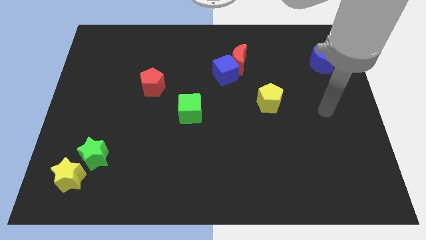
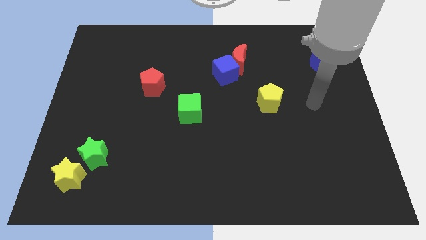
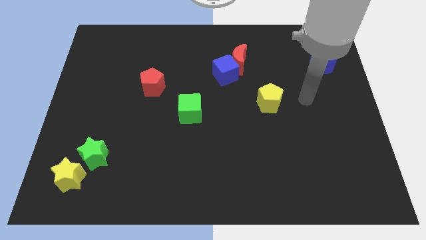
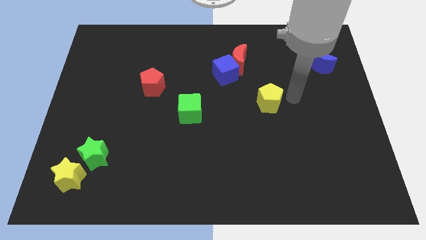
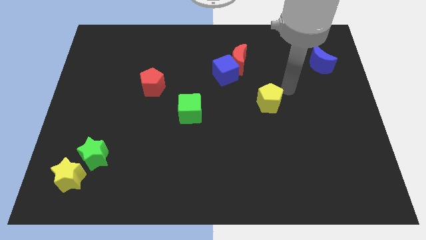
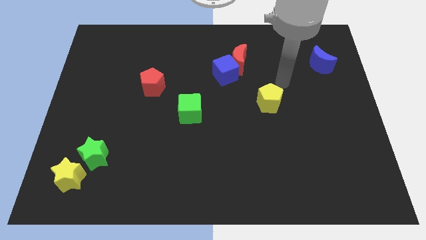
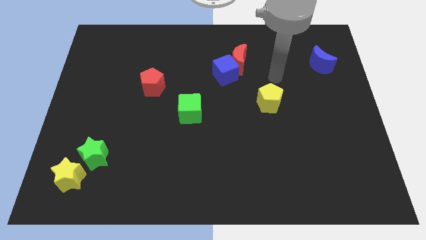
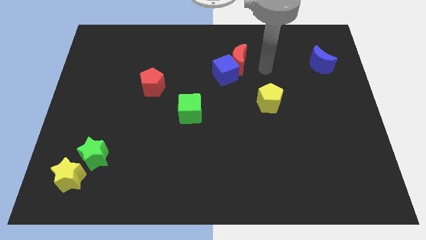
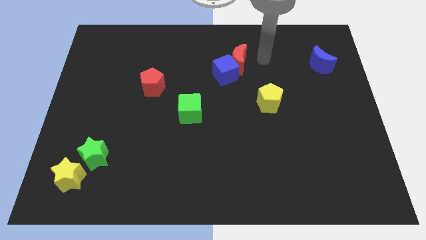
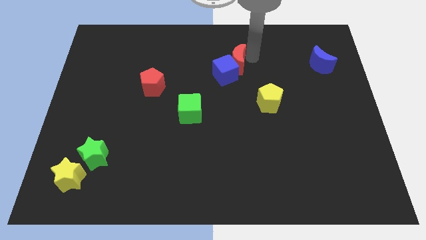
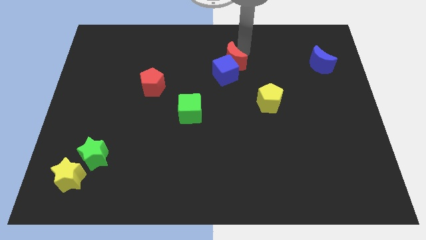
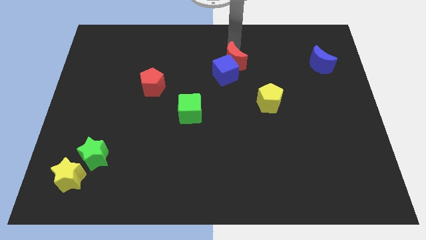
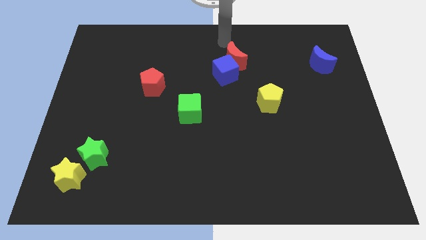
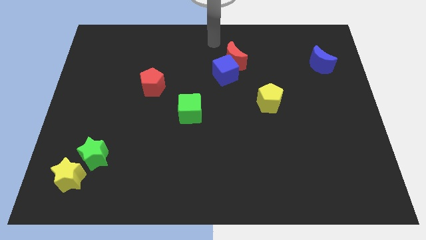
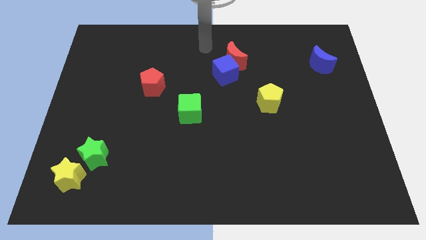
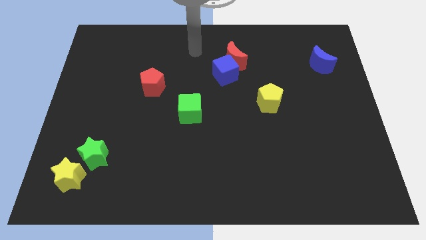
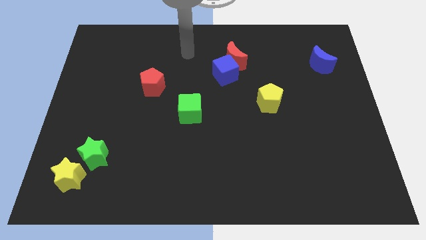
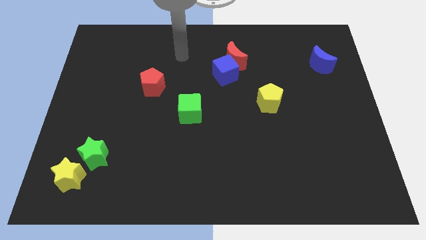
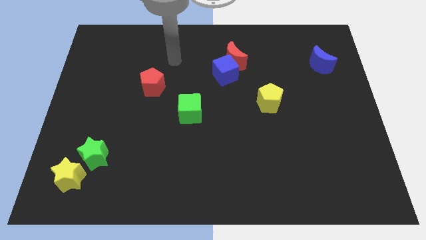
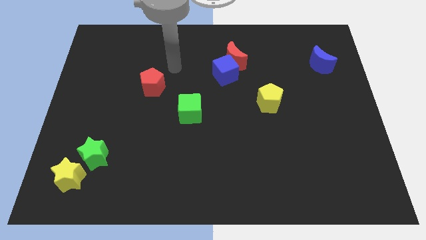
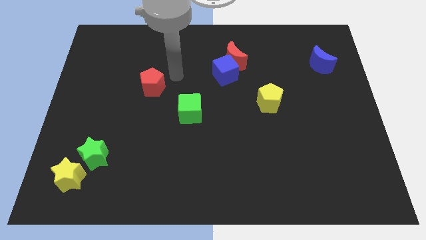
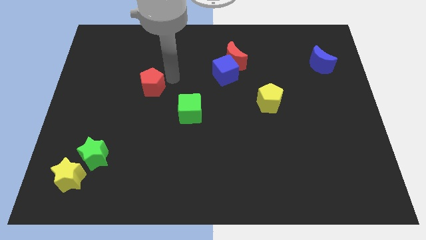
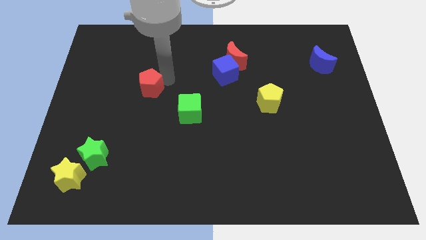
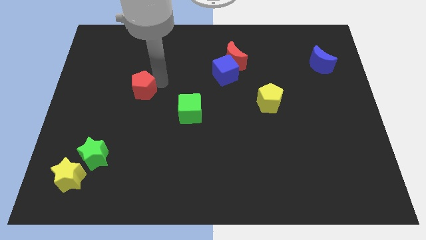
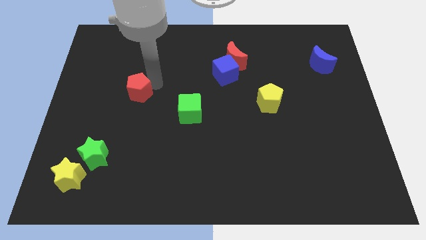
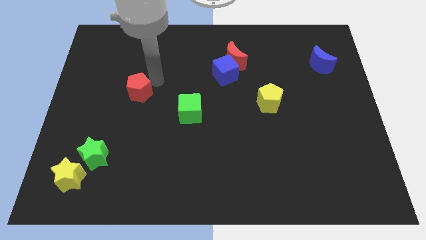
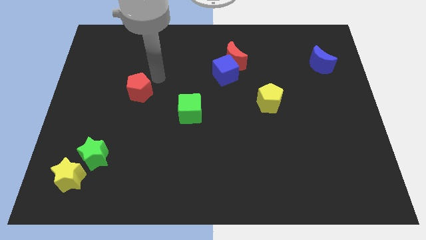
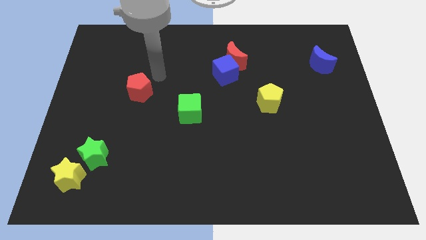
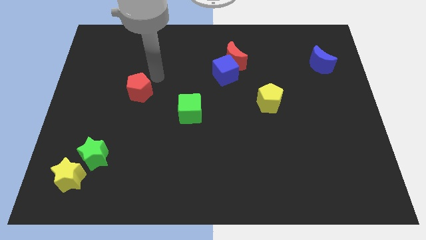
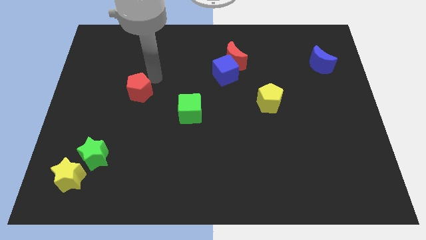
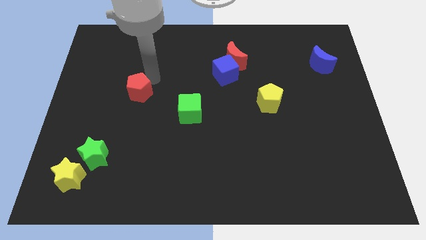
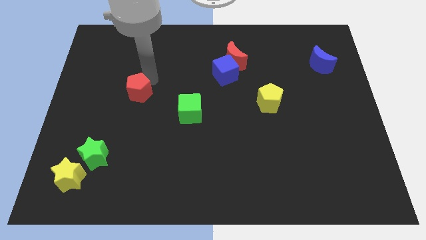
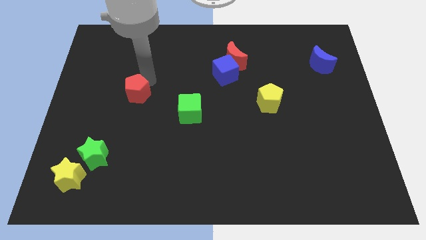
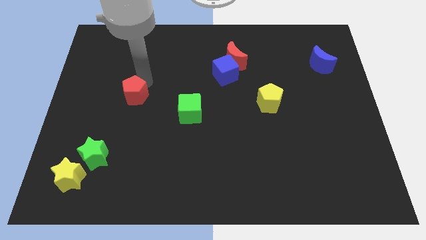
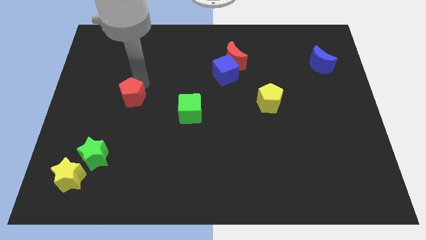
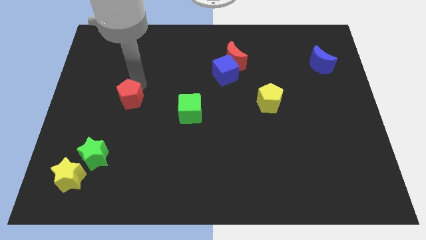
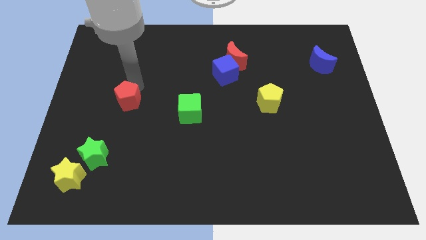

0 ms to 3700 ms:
push the red pentagon downwards and then to the left a bit

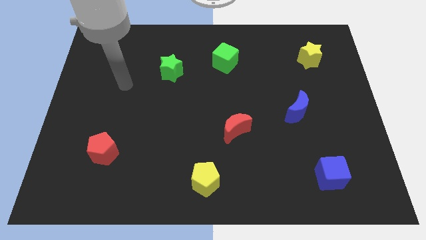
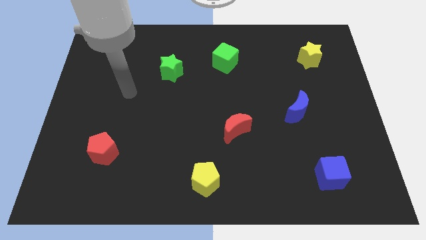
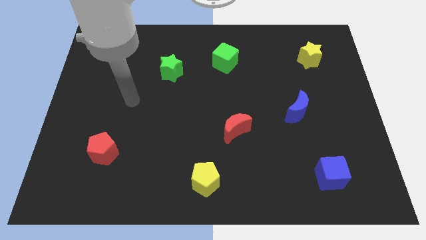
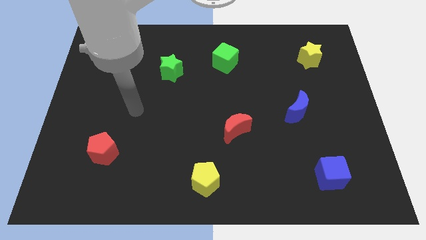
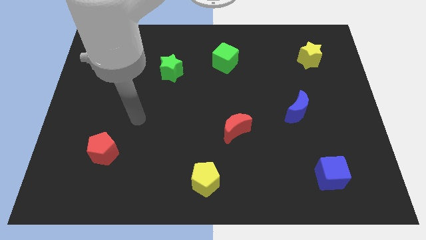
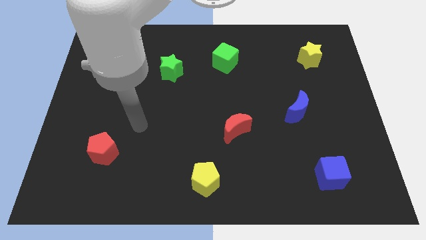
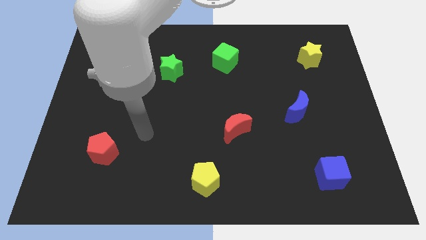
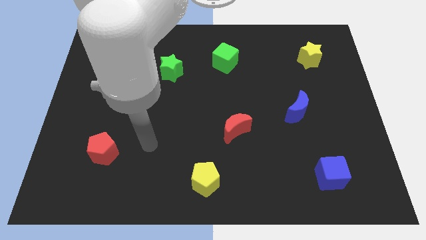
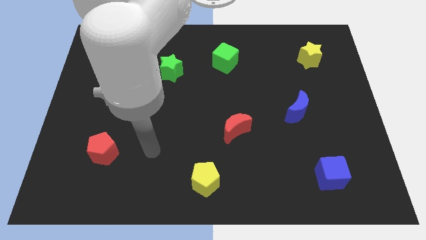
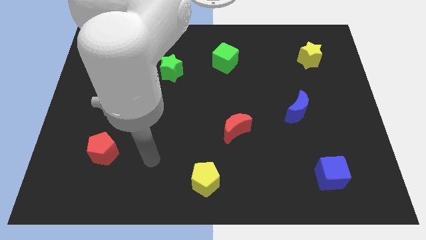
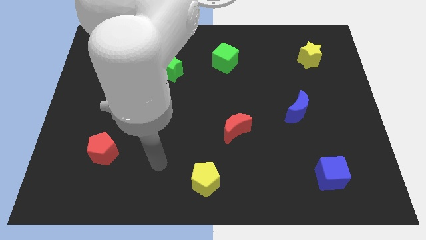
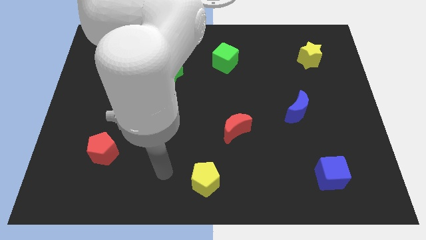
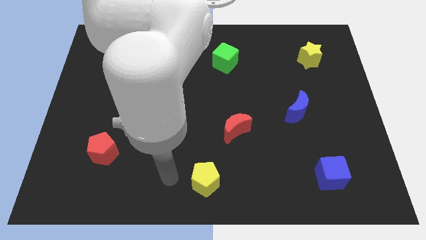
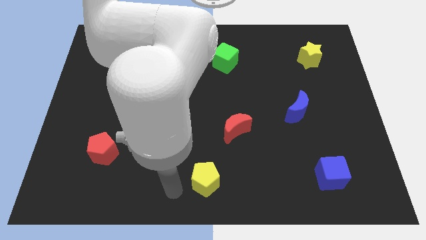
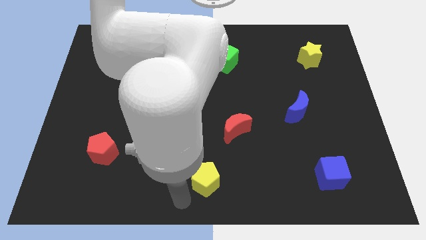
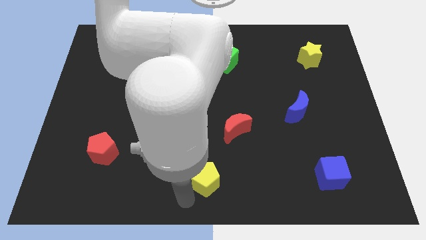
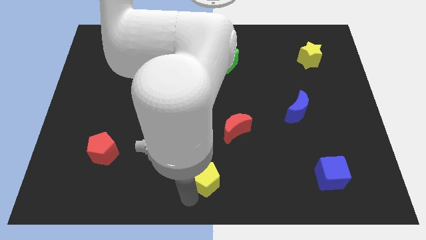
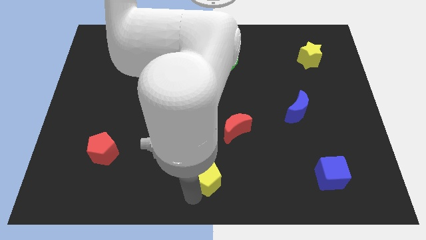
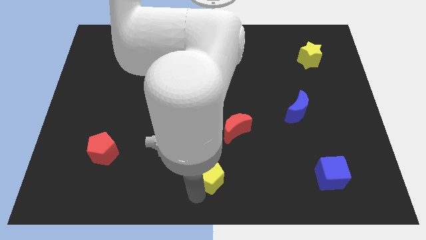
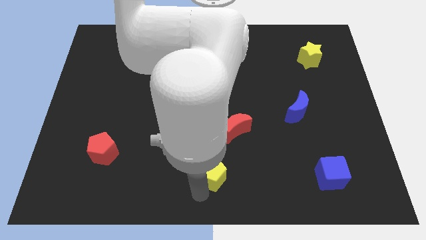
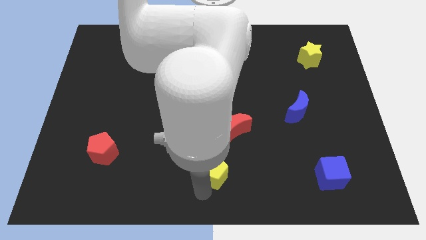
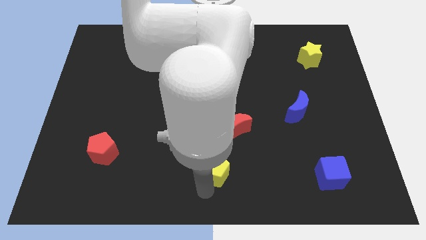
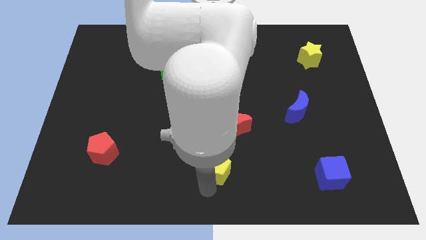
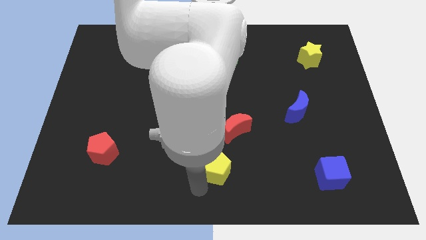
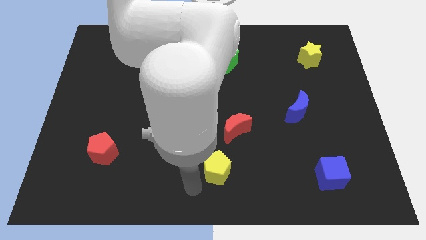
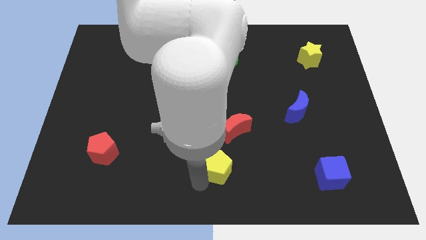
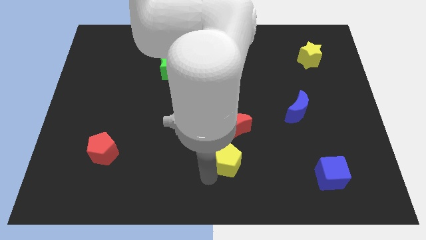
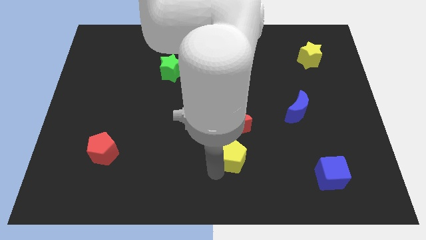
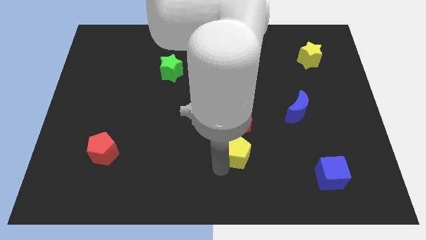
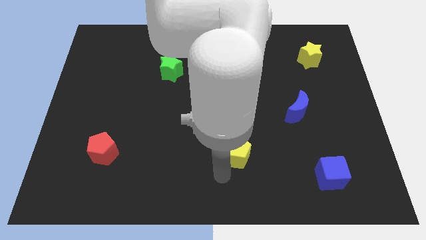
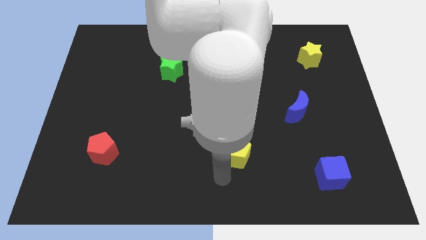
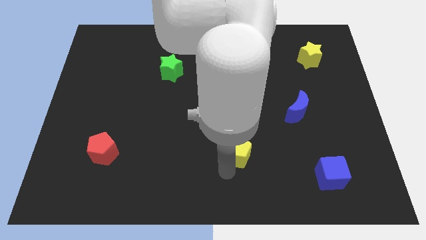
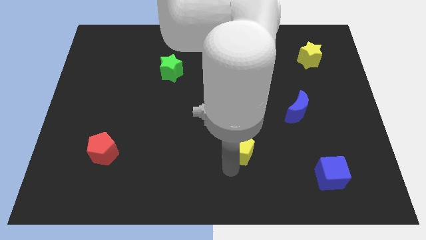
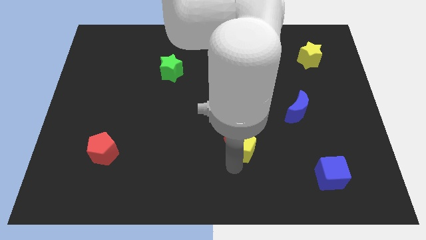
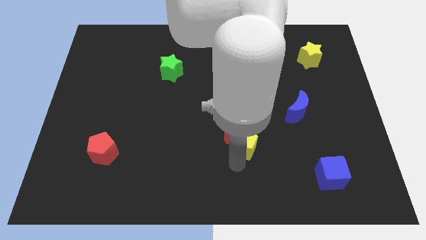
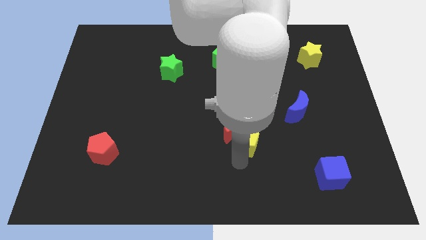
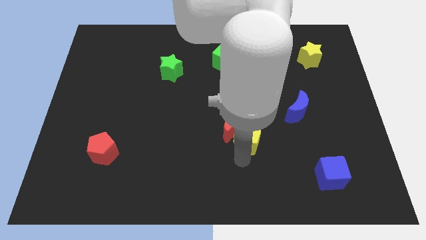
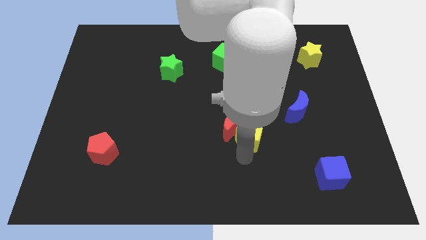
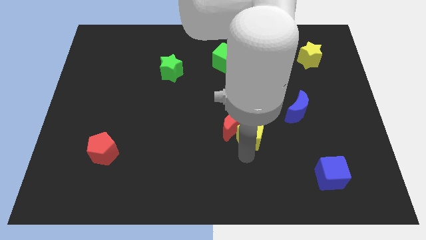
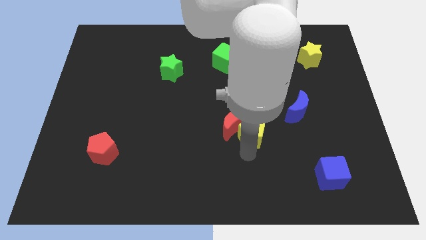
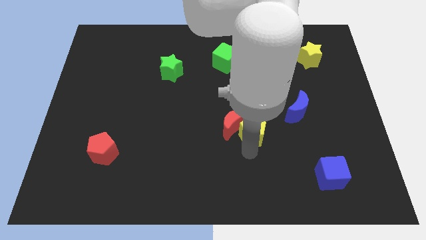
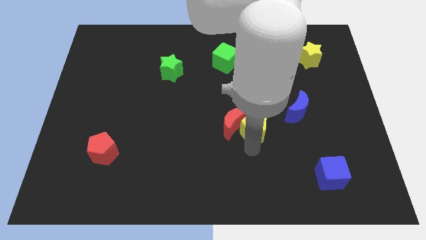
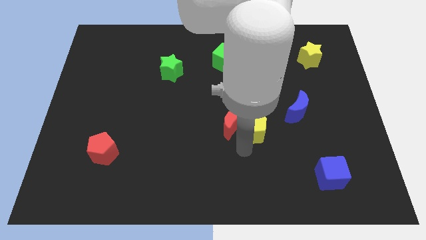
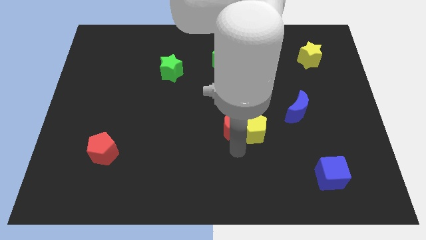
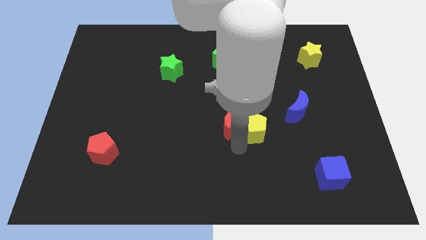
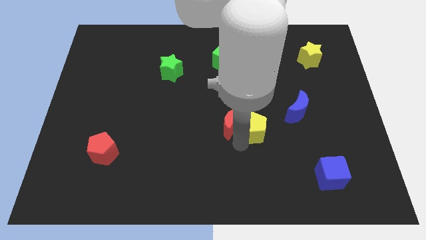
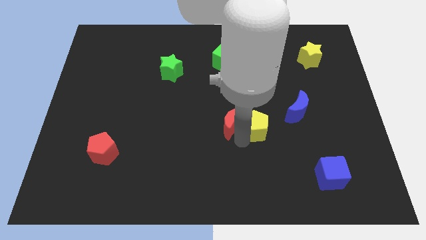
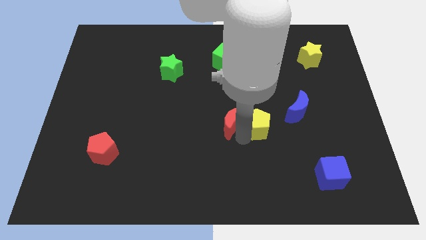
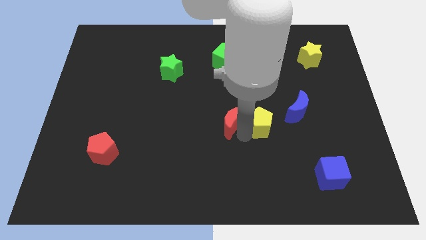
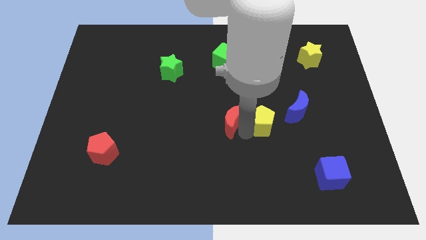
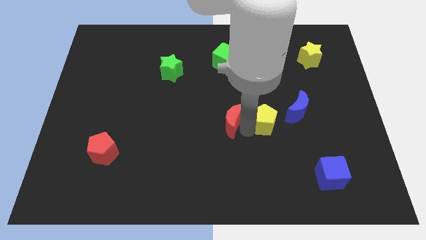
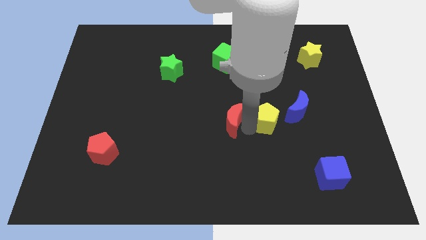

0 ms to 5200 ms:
slide the yellow pentagon up and then to the right
